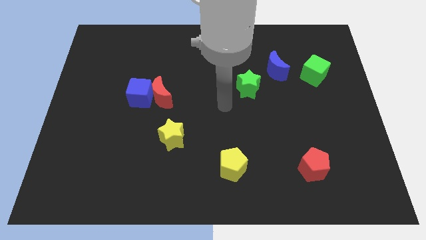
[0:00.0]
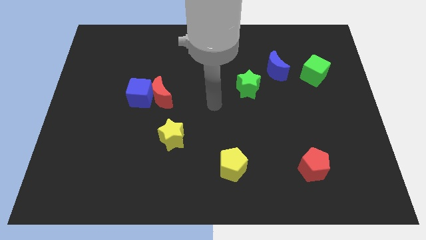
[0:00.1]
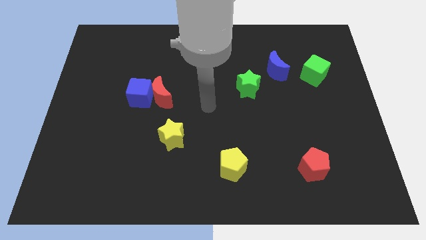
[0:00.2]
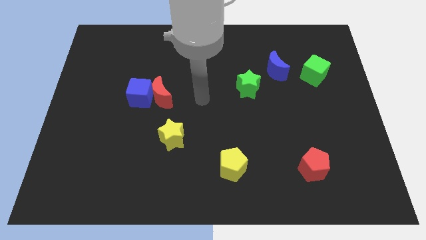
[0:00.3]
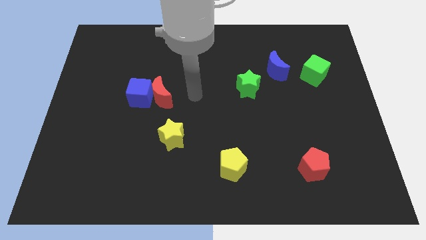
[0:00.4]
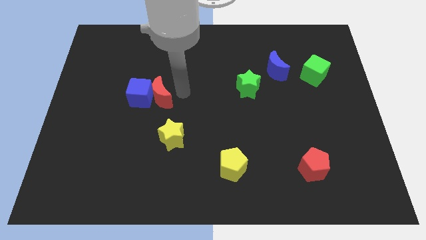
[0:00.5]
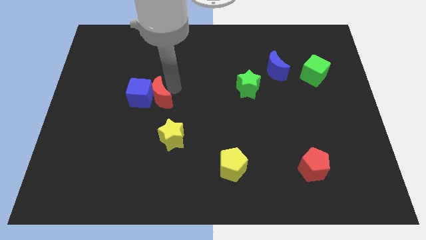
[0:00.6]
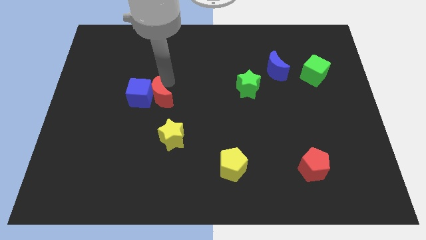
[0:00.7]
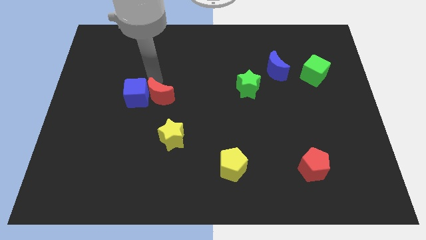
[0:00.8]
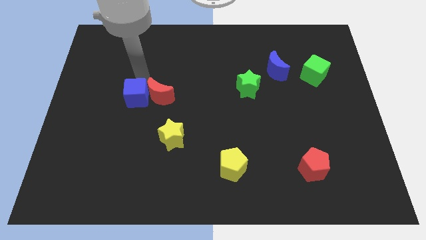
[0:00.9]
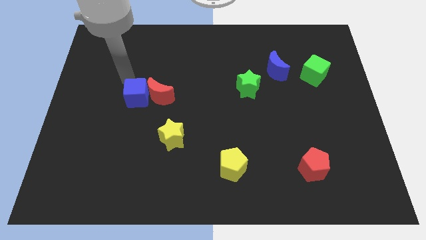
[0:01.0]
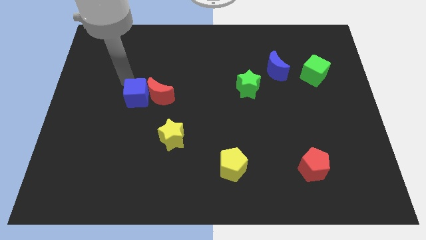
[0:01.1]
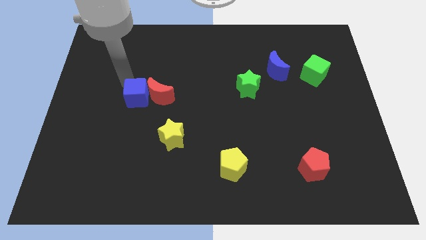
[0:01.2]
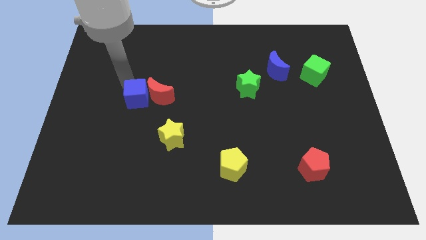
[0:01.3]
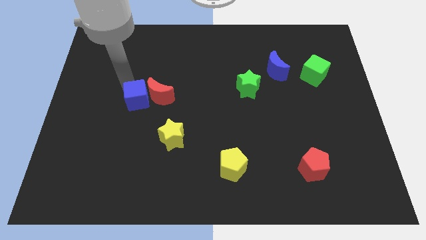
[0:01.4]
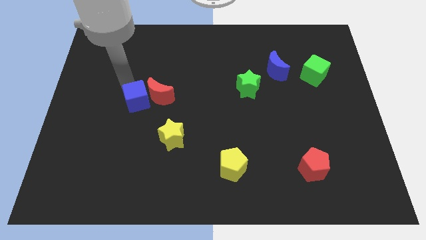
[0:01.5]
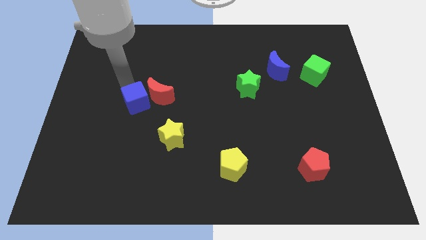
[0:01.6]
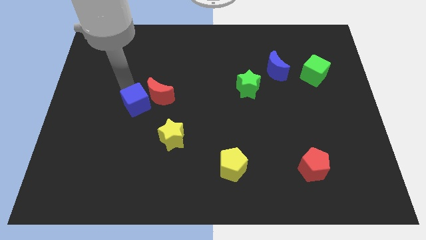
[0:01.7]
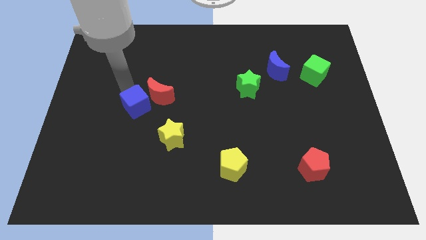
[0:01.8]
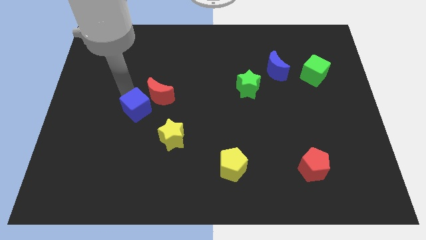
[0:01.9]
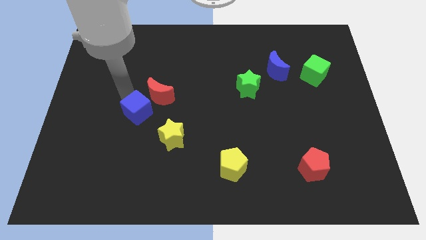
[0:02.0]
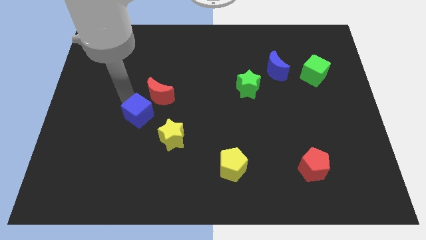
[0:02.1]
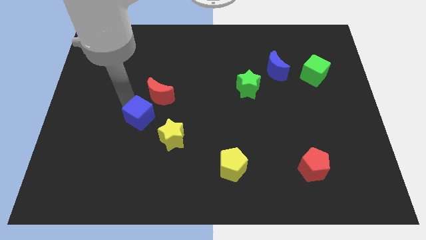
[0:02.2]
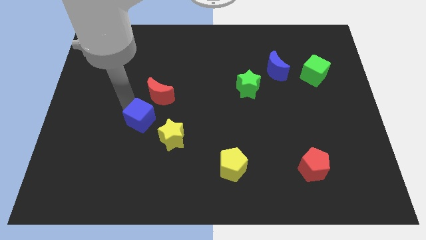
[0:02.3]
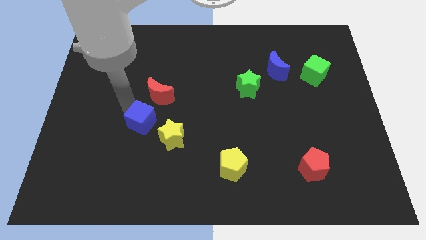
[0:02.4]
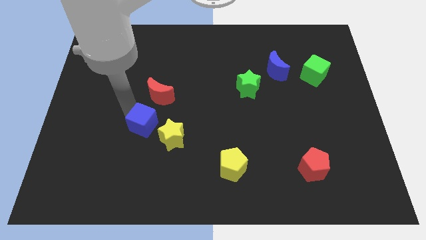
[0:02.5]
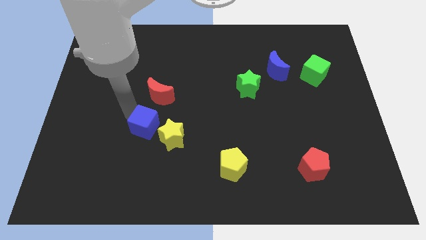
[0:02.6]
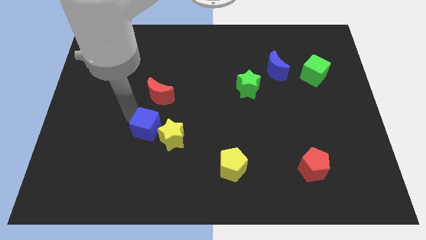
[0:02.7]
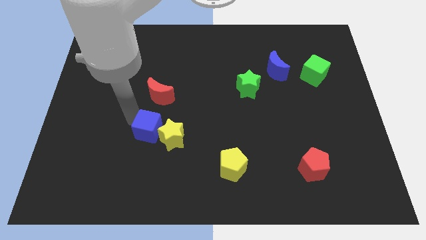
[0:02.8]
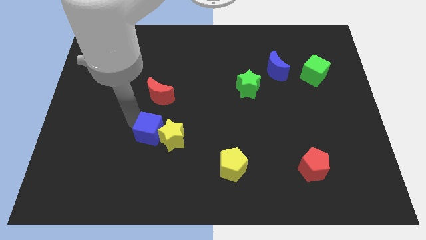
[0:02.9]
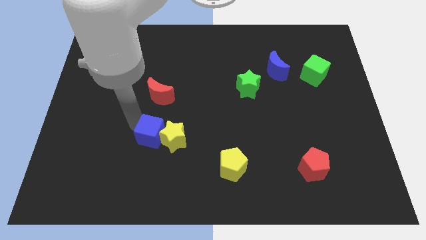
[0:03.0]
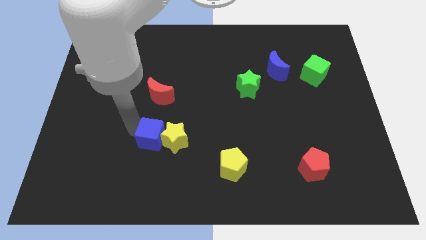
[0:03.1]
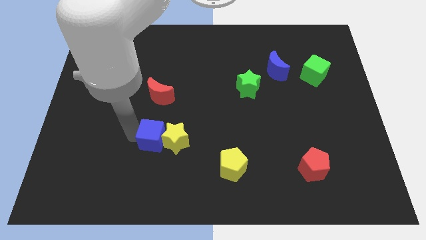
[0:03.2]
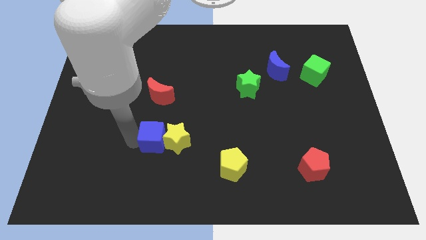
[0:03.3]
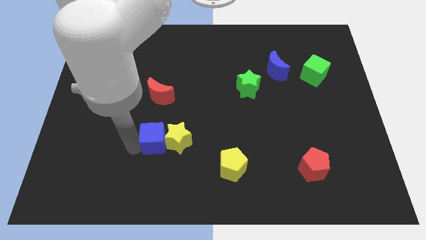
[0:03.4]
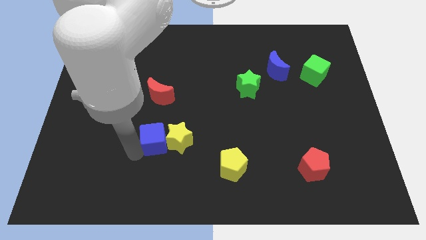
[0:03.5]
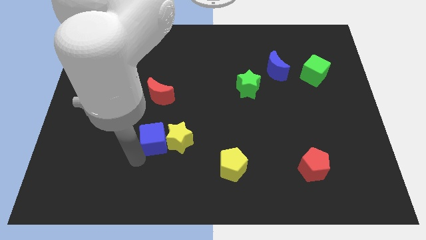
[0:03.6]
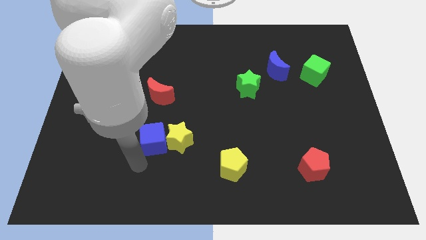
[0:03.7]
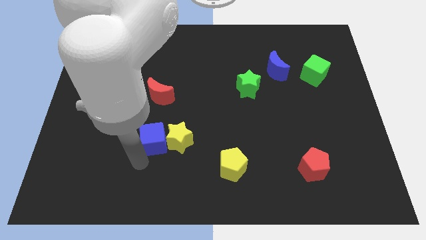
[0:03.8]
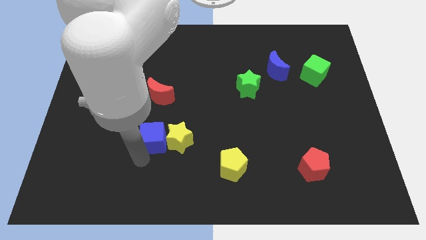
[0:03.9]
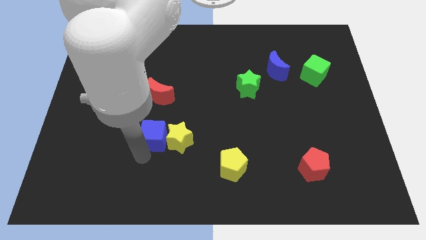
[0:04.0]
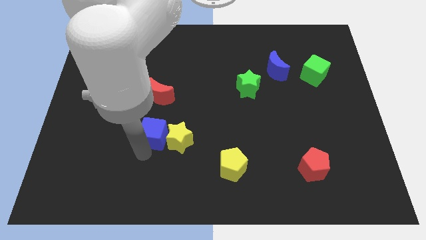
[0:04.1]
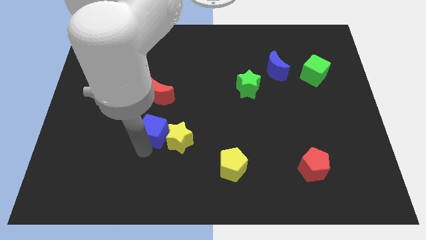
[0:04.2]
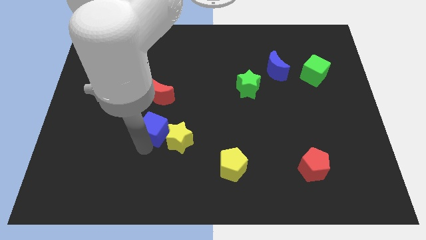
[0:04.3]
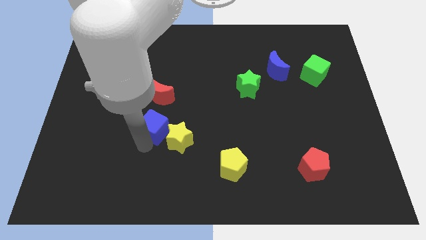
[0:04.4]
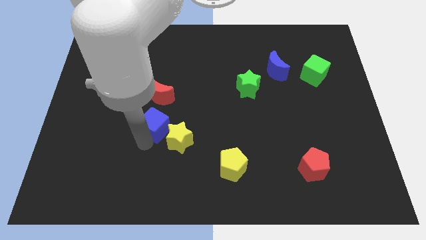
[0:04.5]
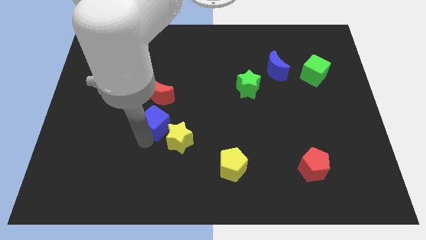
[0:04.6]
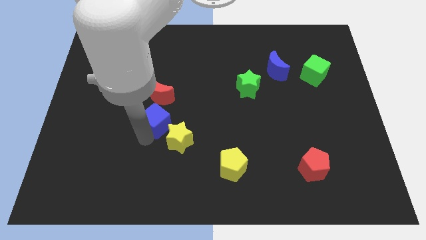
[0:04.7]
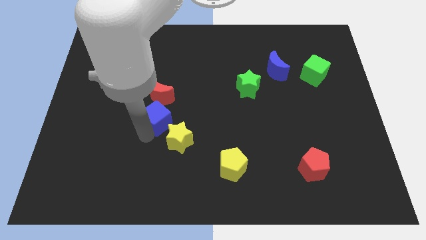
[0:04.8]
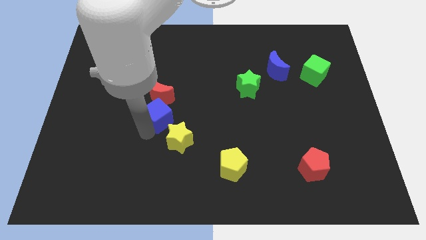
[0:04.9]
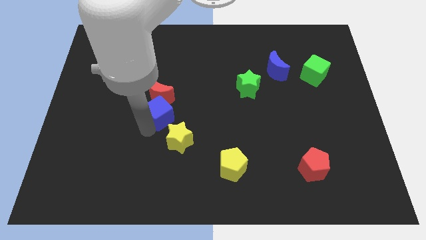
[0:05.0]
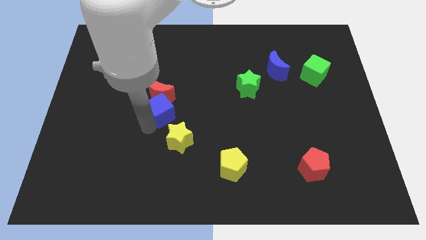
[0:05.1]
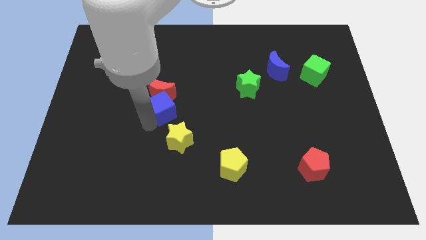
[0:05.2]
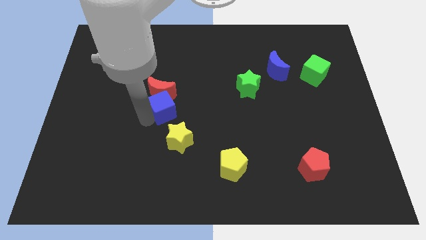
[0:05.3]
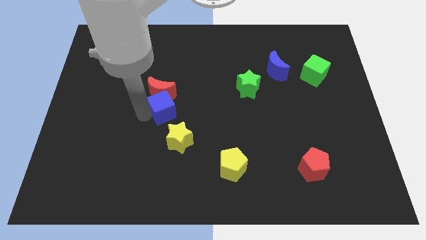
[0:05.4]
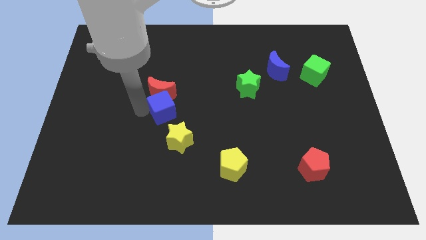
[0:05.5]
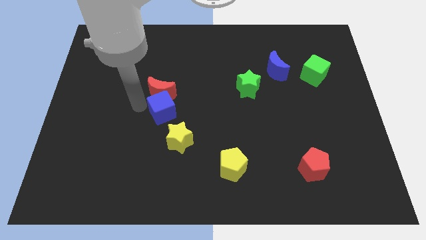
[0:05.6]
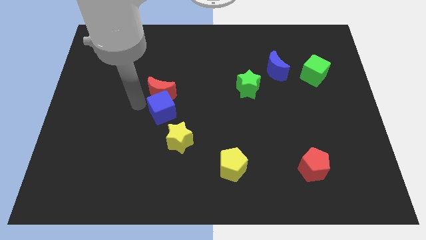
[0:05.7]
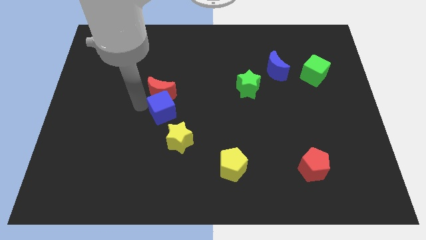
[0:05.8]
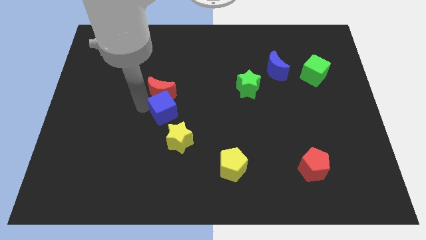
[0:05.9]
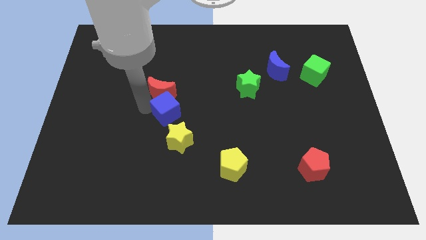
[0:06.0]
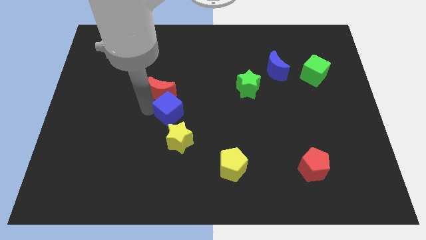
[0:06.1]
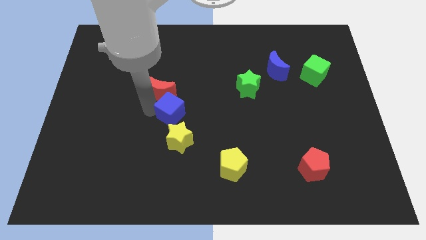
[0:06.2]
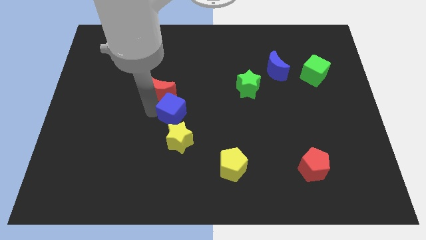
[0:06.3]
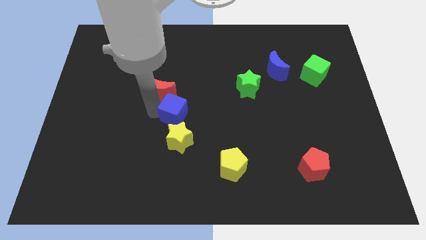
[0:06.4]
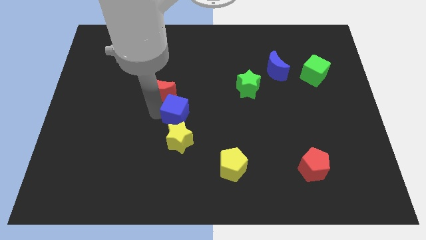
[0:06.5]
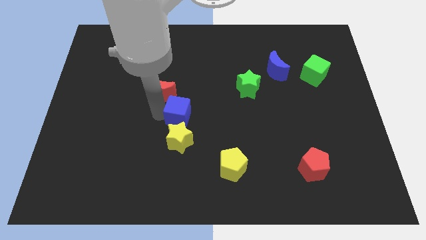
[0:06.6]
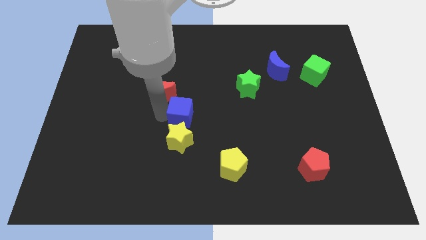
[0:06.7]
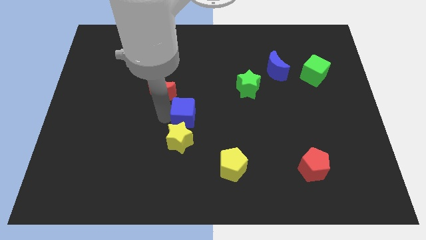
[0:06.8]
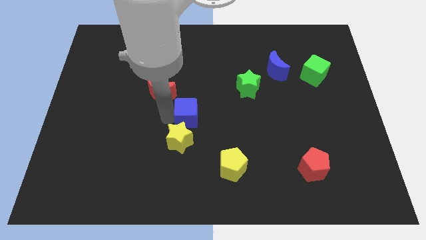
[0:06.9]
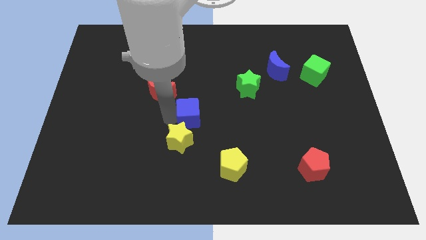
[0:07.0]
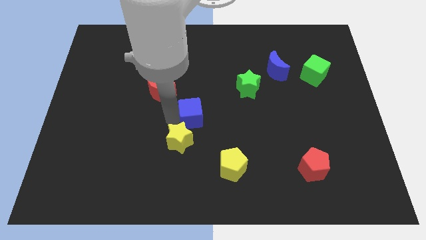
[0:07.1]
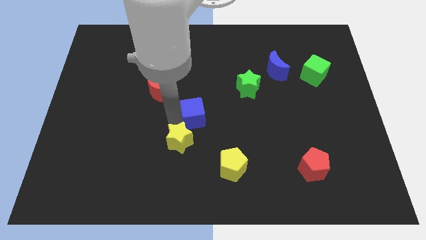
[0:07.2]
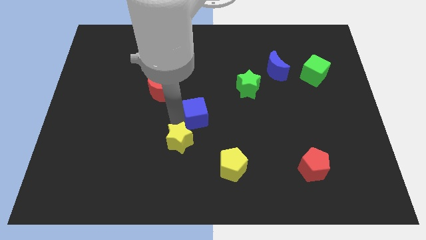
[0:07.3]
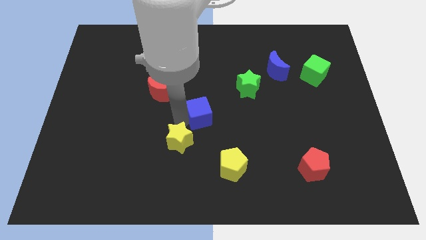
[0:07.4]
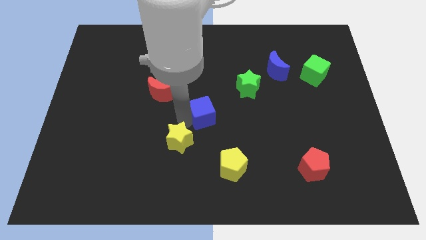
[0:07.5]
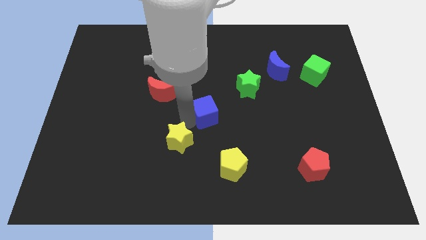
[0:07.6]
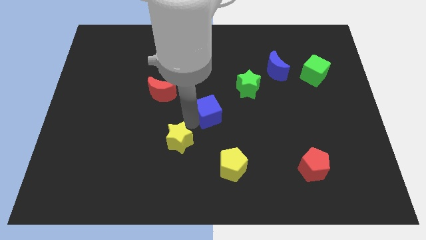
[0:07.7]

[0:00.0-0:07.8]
move the blue cube to the bottom left of the green star
